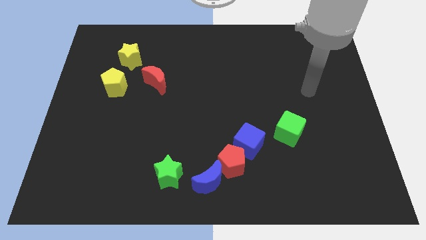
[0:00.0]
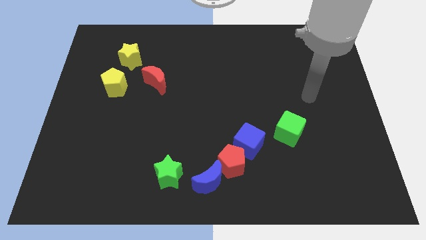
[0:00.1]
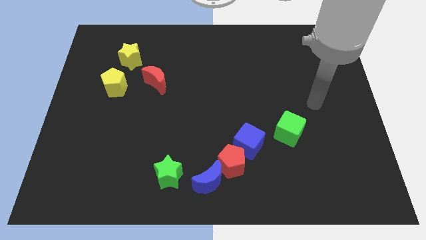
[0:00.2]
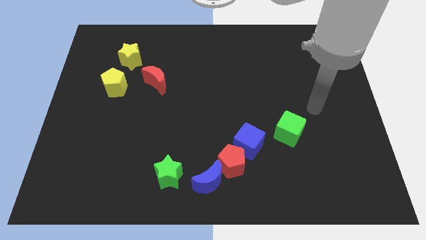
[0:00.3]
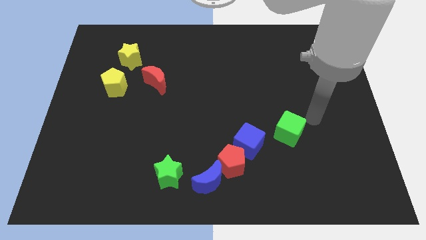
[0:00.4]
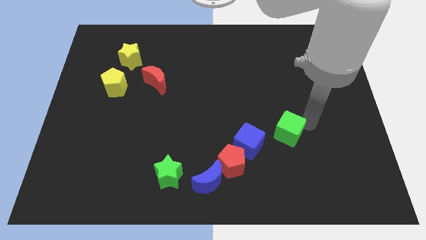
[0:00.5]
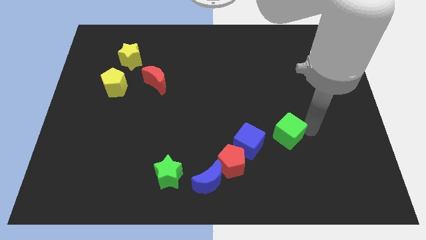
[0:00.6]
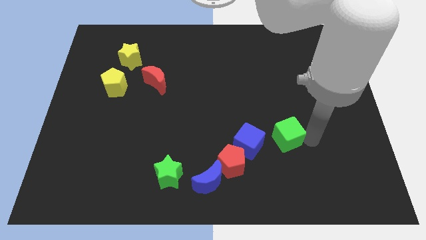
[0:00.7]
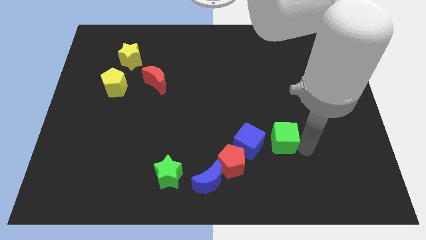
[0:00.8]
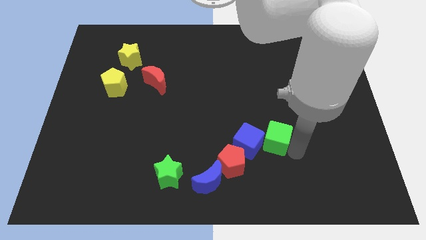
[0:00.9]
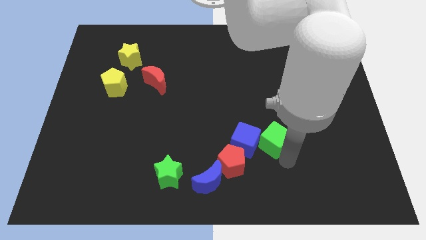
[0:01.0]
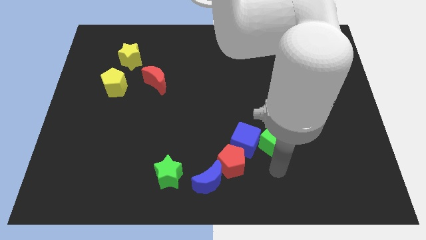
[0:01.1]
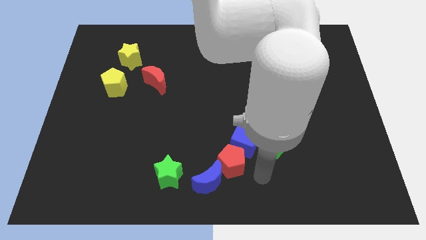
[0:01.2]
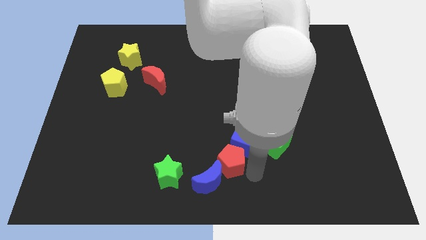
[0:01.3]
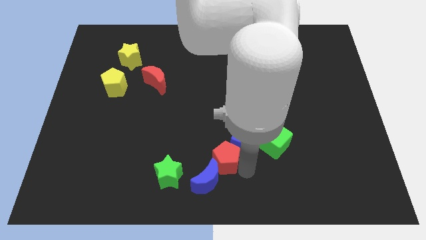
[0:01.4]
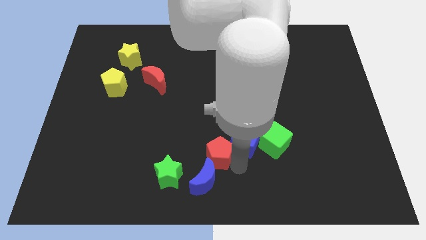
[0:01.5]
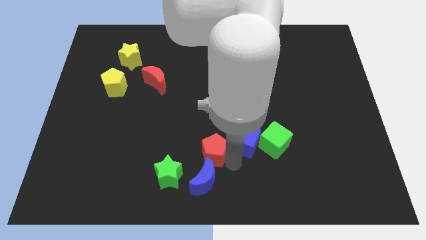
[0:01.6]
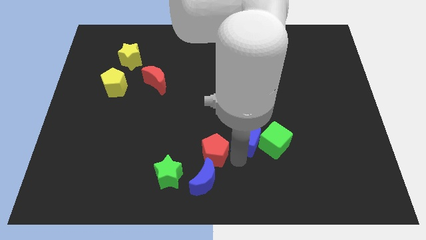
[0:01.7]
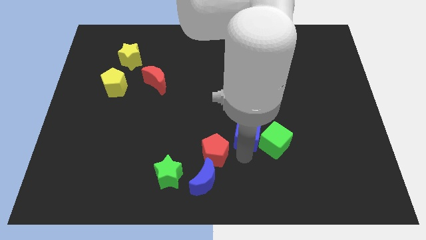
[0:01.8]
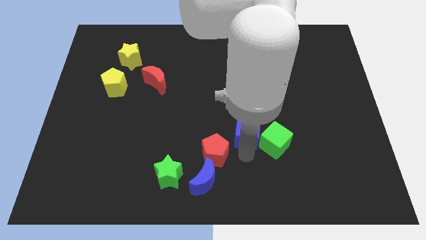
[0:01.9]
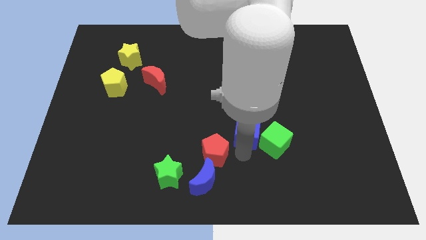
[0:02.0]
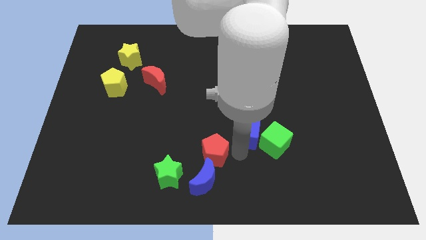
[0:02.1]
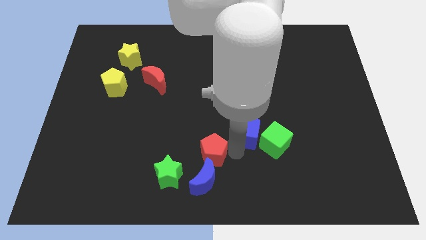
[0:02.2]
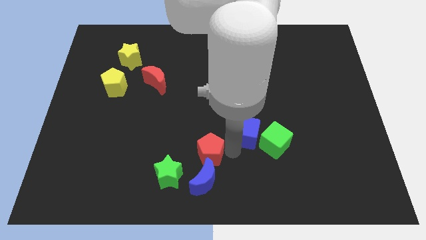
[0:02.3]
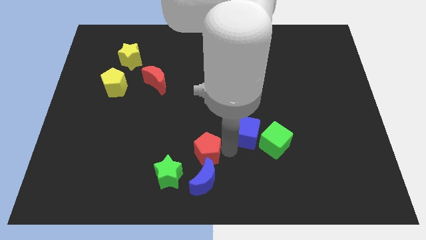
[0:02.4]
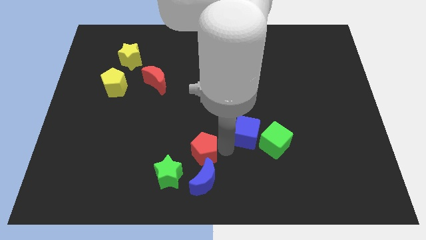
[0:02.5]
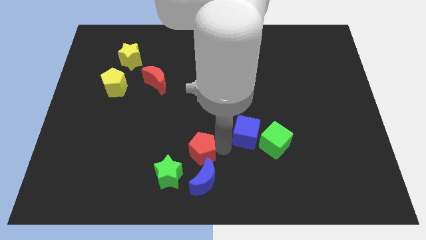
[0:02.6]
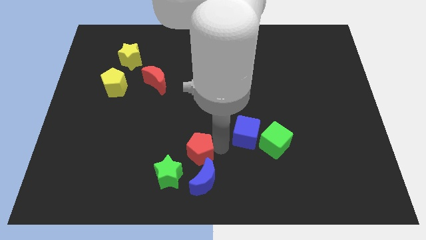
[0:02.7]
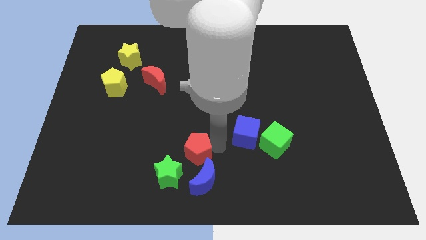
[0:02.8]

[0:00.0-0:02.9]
push the red pentagon to the left slightly

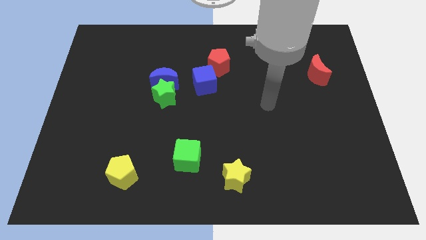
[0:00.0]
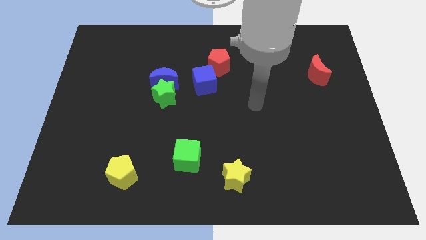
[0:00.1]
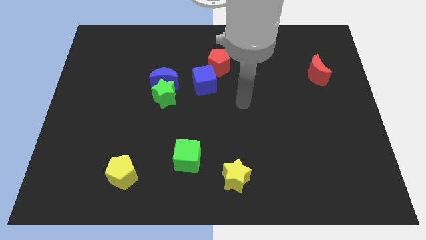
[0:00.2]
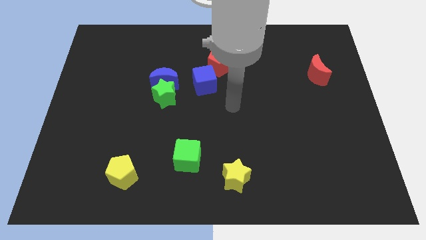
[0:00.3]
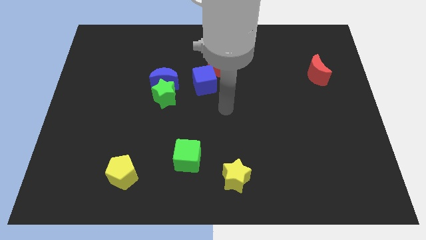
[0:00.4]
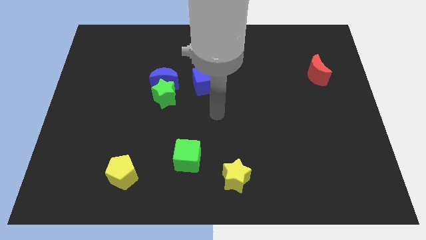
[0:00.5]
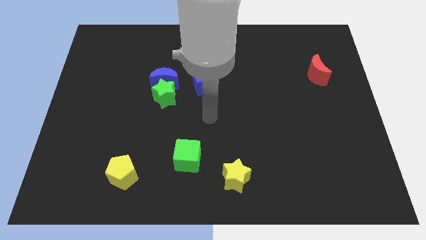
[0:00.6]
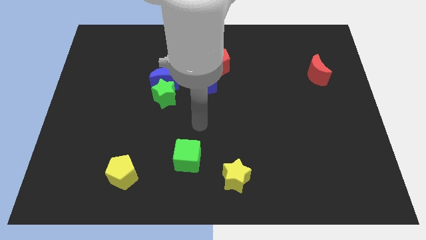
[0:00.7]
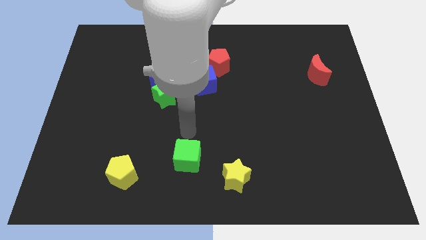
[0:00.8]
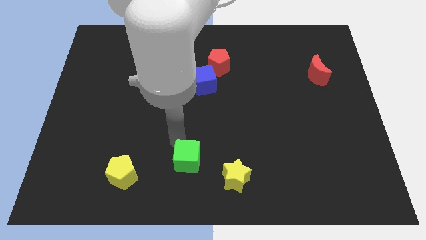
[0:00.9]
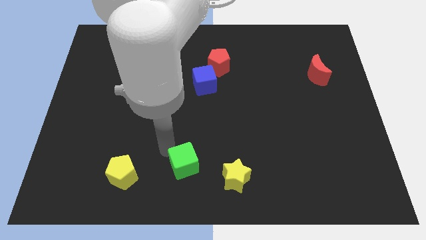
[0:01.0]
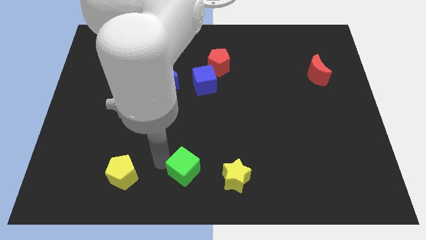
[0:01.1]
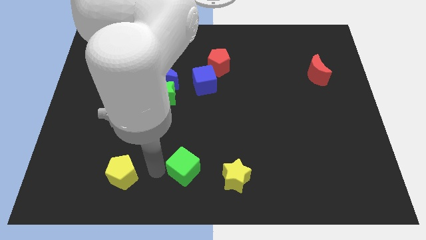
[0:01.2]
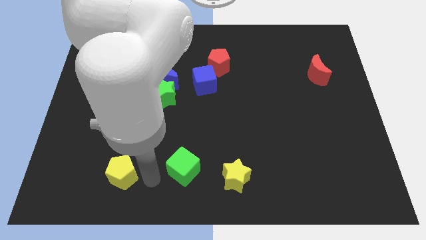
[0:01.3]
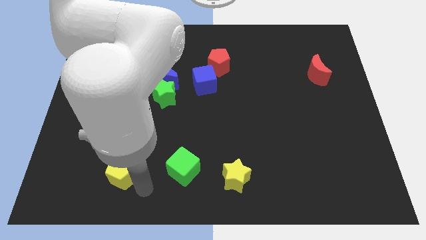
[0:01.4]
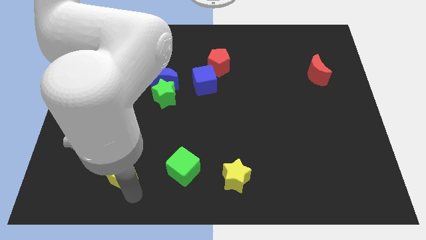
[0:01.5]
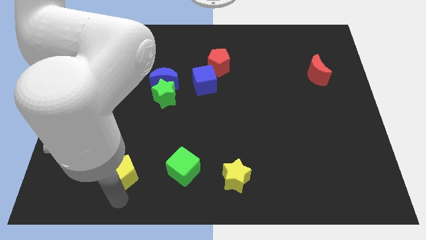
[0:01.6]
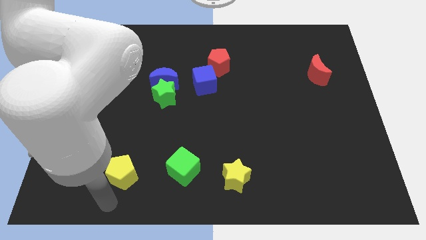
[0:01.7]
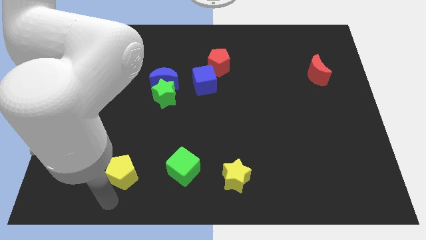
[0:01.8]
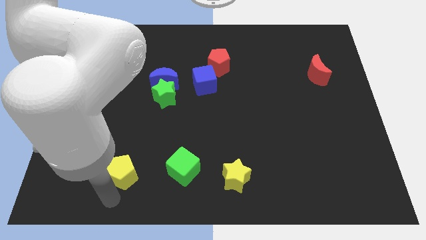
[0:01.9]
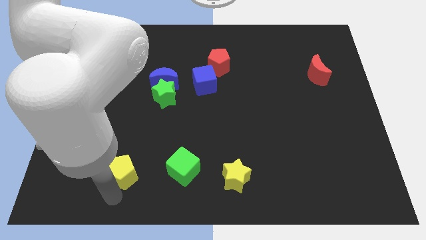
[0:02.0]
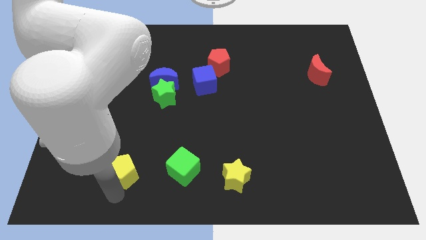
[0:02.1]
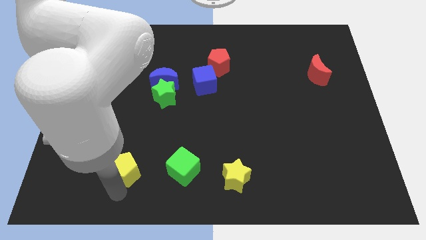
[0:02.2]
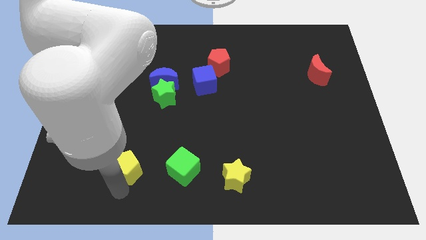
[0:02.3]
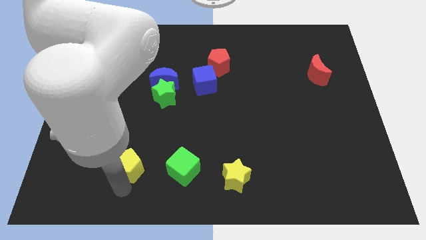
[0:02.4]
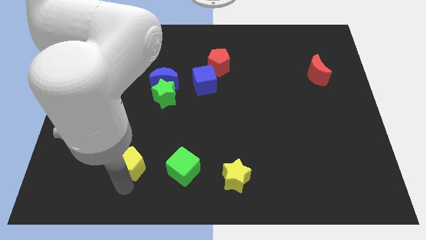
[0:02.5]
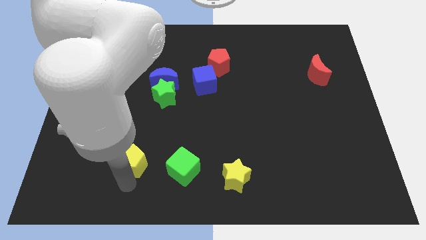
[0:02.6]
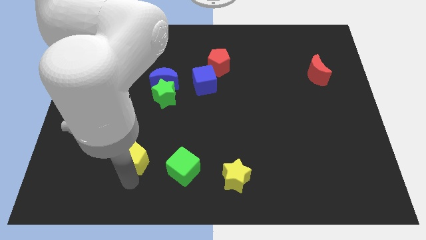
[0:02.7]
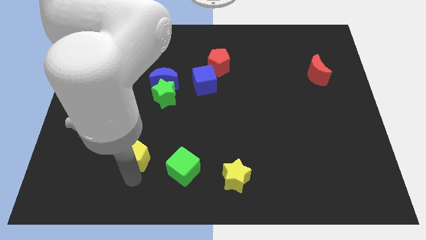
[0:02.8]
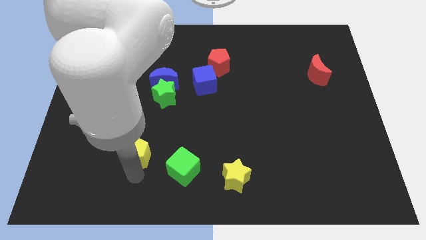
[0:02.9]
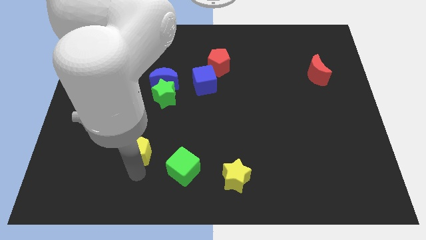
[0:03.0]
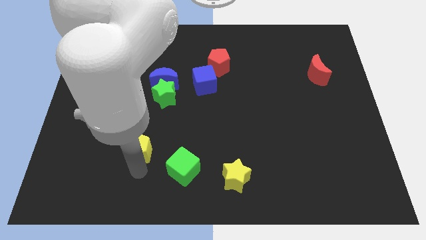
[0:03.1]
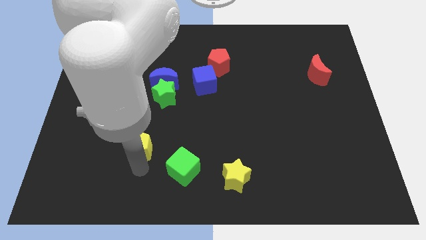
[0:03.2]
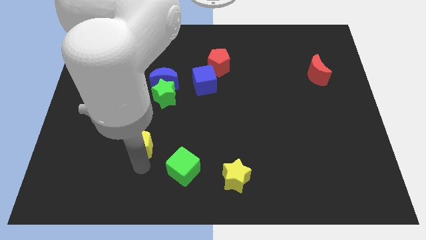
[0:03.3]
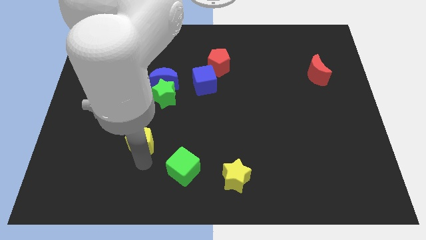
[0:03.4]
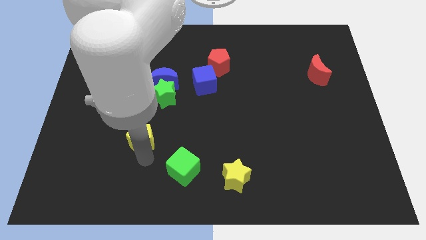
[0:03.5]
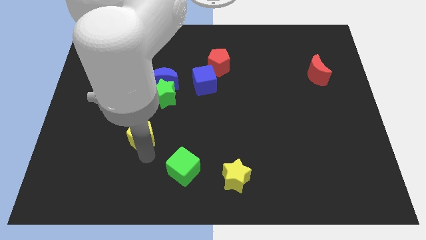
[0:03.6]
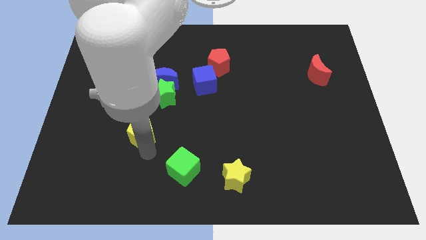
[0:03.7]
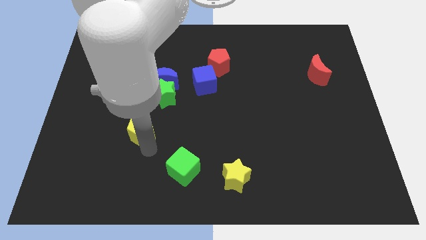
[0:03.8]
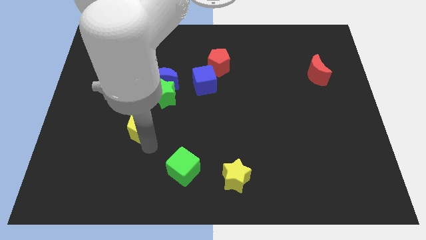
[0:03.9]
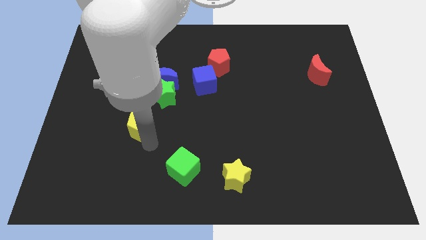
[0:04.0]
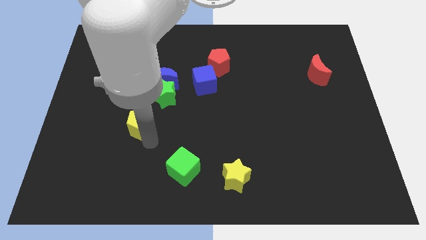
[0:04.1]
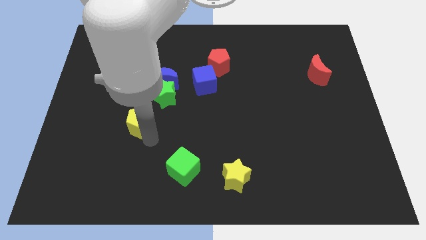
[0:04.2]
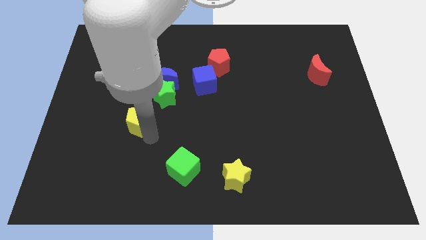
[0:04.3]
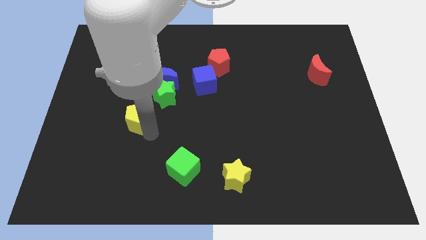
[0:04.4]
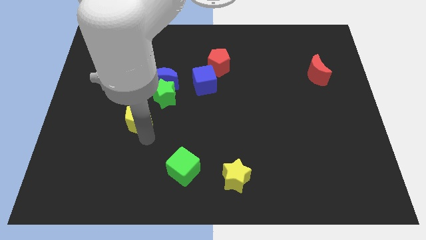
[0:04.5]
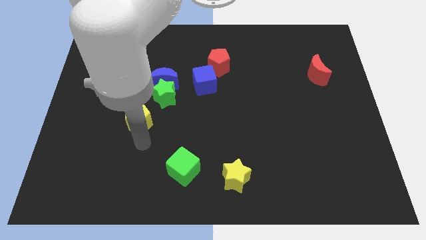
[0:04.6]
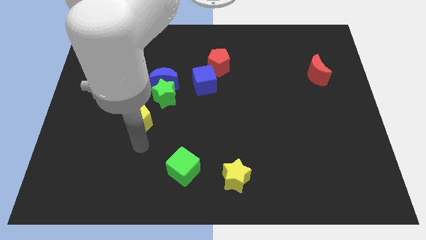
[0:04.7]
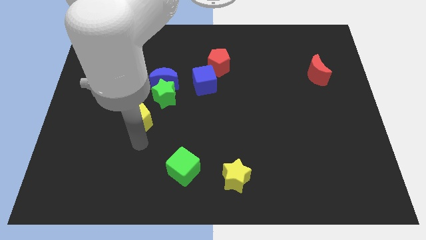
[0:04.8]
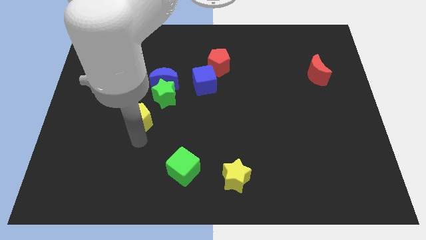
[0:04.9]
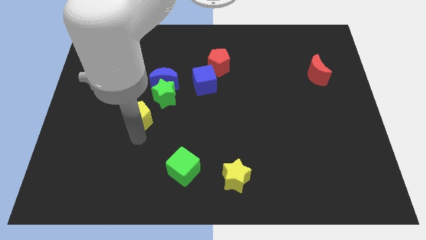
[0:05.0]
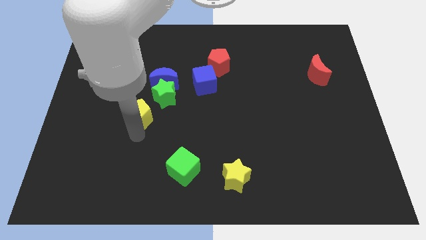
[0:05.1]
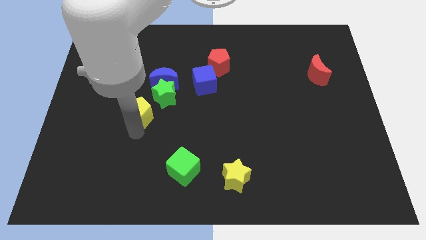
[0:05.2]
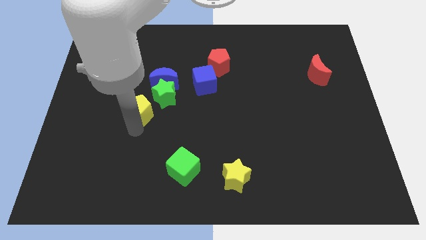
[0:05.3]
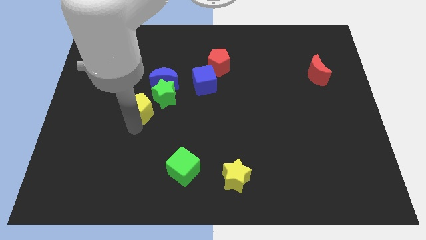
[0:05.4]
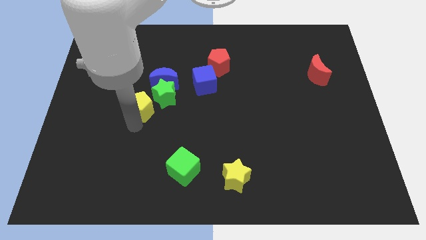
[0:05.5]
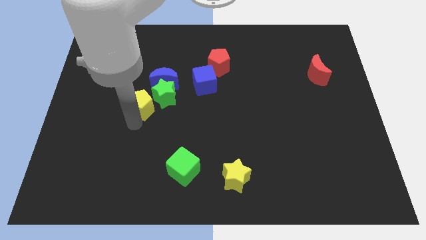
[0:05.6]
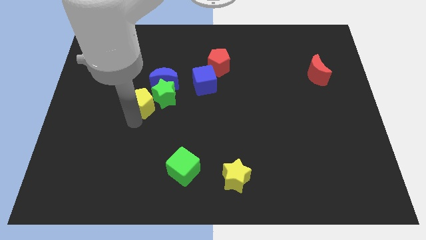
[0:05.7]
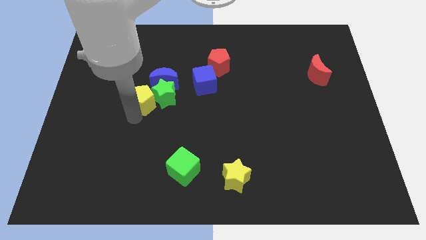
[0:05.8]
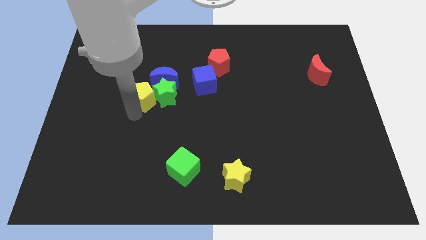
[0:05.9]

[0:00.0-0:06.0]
move the yellow pentagon upwards
